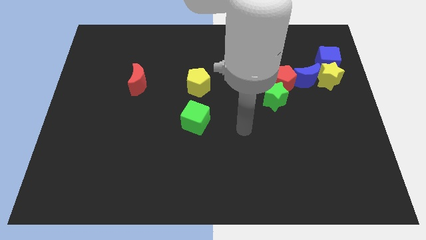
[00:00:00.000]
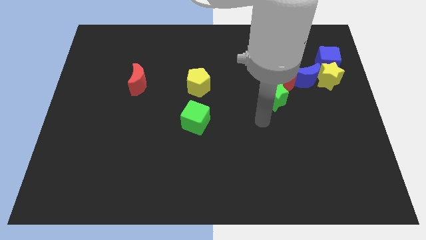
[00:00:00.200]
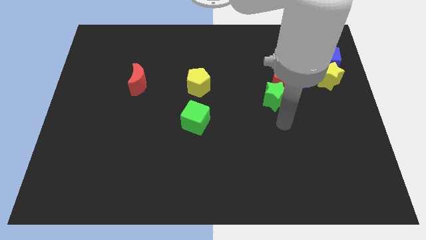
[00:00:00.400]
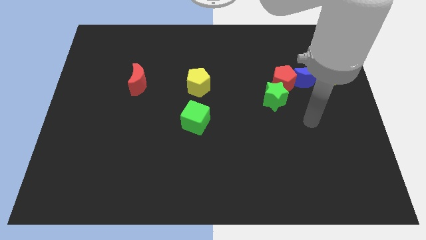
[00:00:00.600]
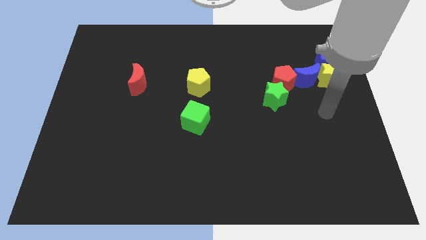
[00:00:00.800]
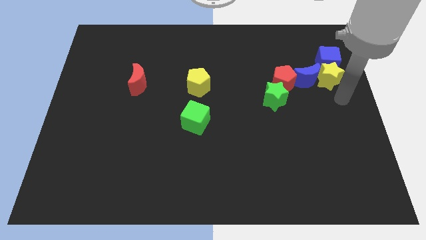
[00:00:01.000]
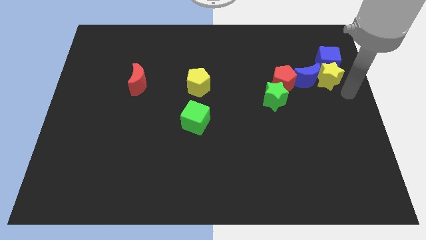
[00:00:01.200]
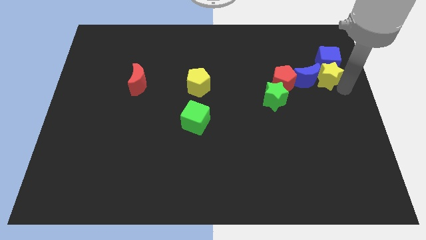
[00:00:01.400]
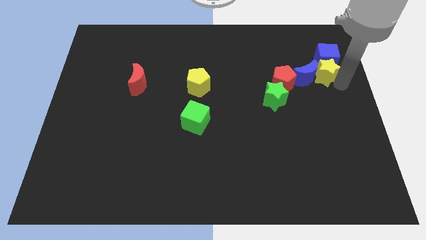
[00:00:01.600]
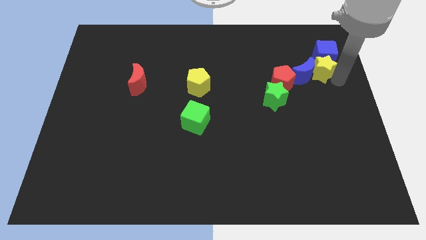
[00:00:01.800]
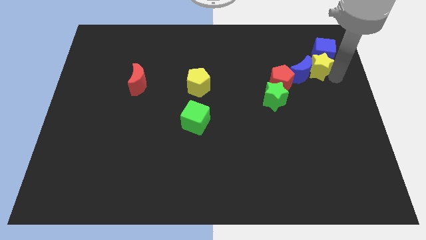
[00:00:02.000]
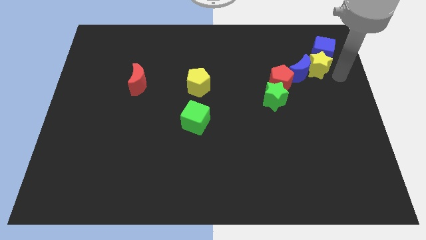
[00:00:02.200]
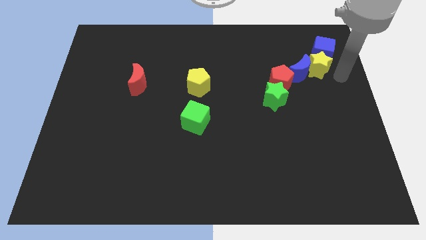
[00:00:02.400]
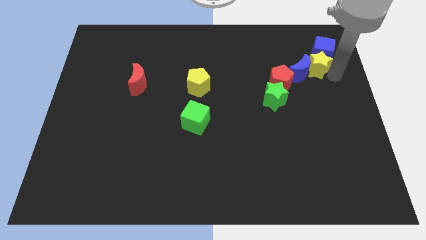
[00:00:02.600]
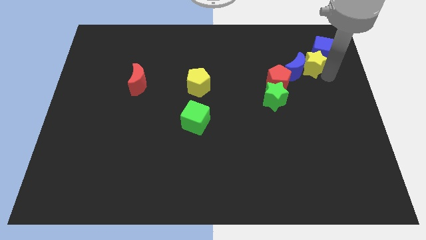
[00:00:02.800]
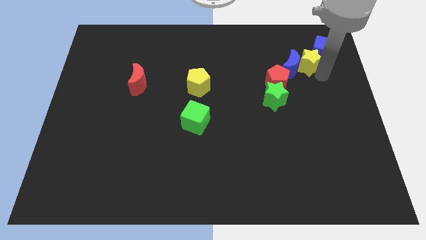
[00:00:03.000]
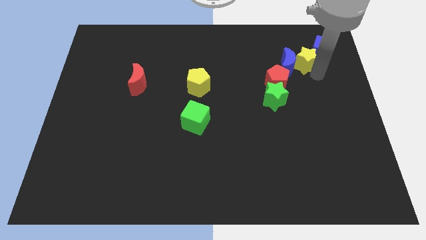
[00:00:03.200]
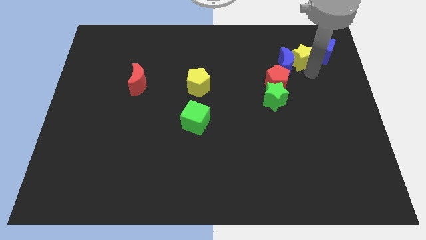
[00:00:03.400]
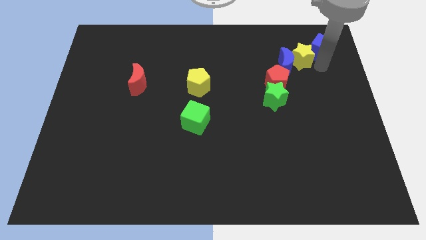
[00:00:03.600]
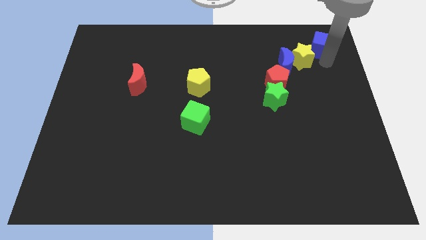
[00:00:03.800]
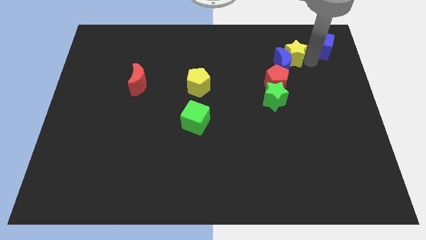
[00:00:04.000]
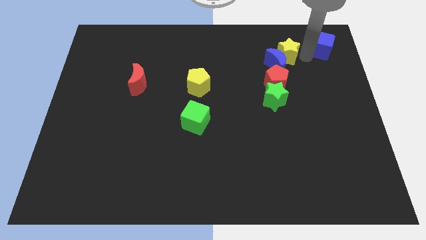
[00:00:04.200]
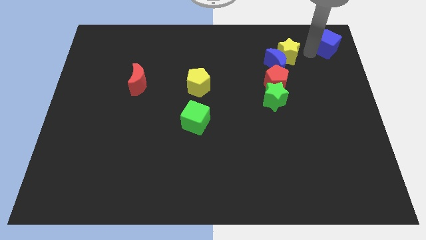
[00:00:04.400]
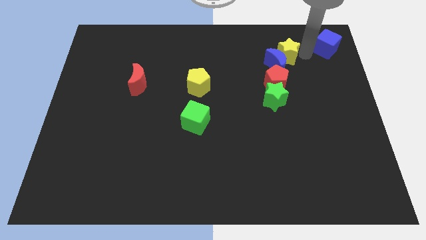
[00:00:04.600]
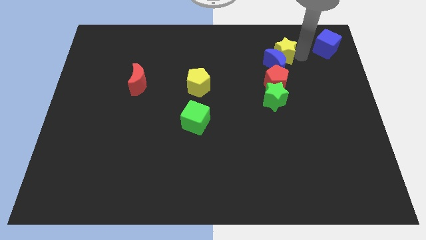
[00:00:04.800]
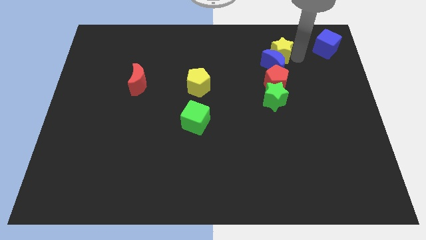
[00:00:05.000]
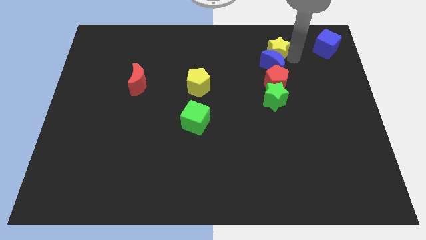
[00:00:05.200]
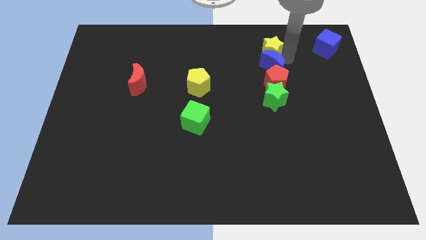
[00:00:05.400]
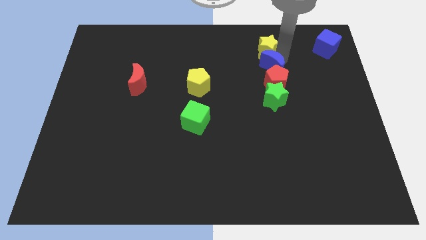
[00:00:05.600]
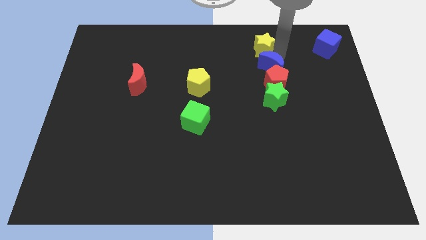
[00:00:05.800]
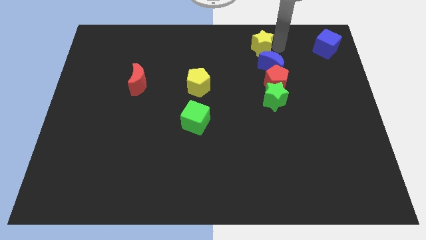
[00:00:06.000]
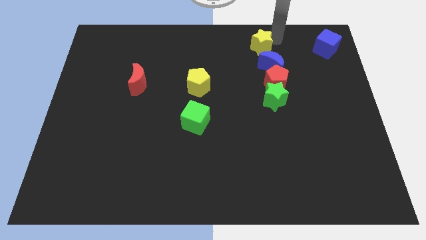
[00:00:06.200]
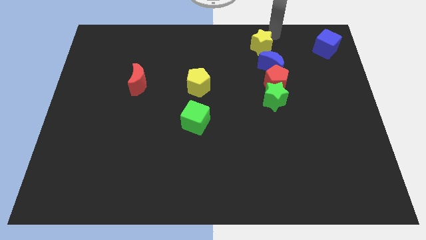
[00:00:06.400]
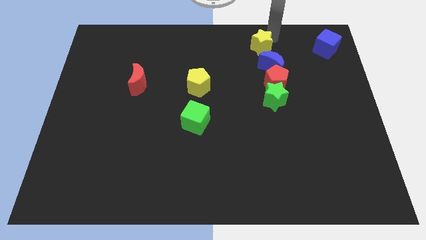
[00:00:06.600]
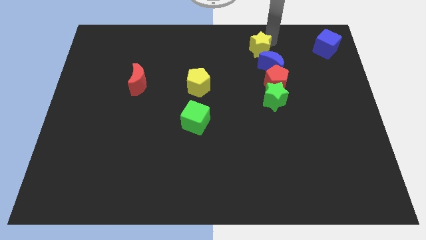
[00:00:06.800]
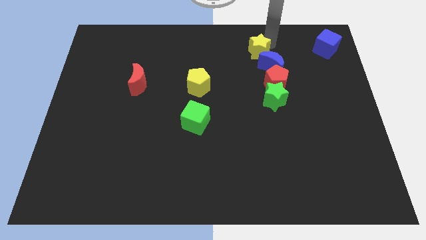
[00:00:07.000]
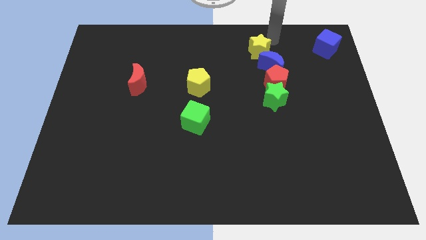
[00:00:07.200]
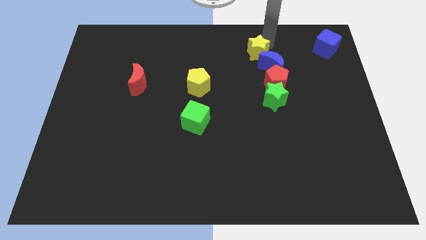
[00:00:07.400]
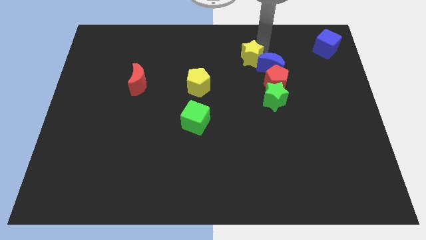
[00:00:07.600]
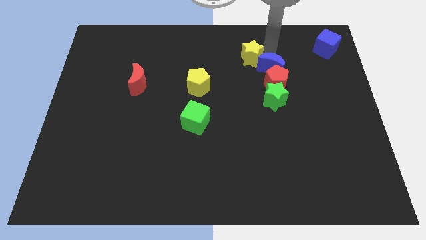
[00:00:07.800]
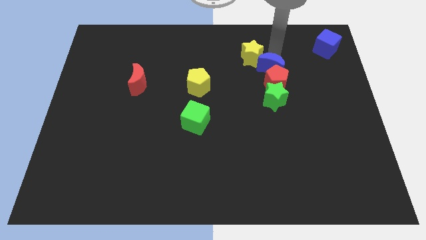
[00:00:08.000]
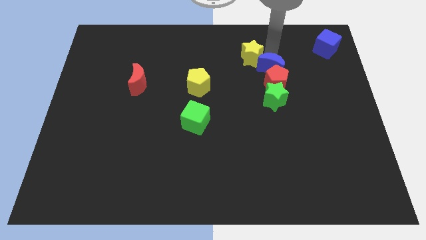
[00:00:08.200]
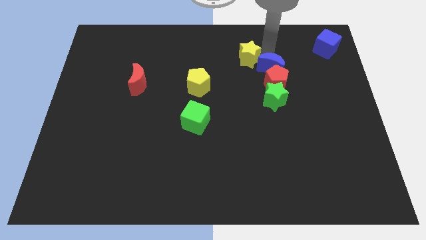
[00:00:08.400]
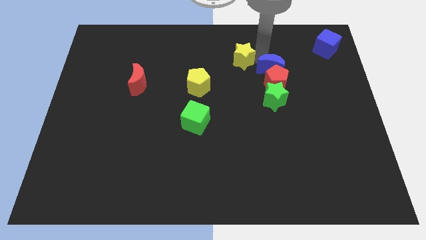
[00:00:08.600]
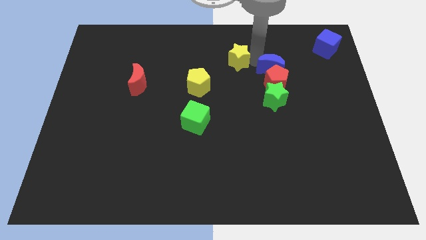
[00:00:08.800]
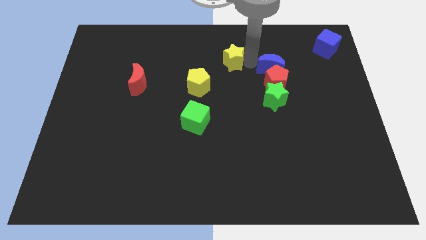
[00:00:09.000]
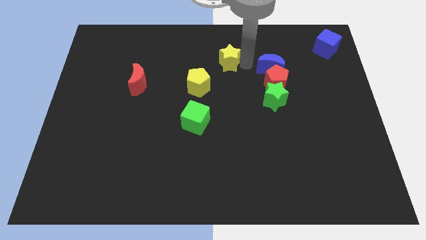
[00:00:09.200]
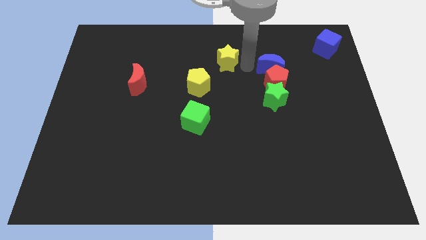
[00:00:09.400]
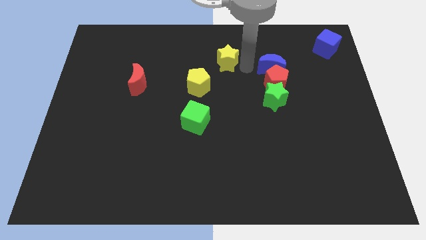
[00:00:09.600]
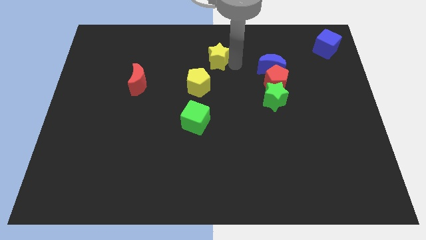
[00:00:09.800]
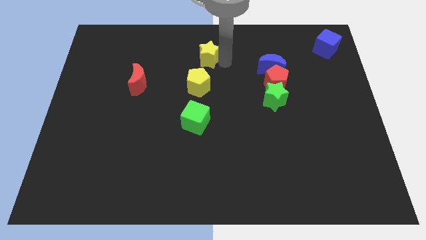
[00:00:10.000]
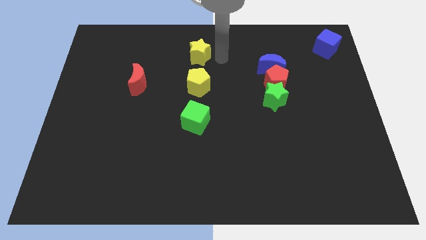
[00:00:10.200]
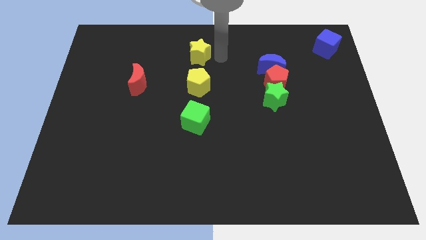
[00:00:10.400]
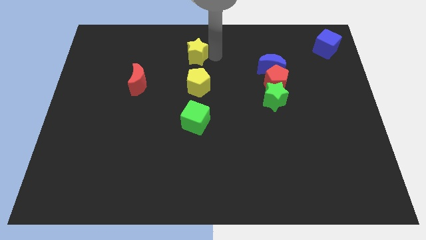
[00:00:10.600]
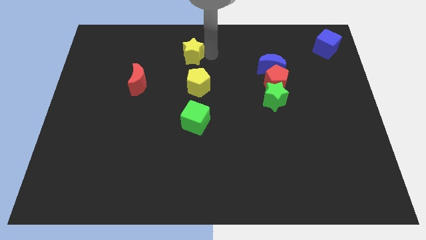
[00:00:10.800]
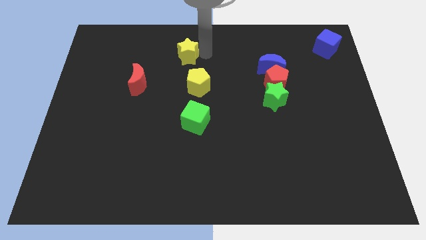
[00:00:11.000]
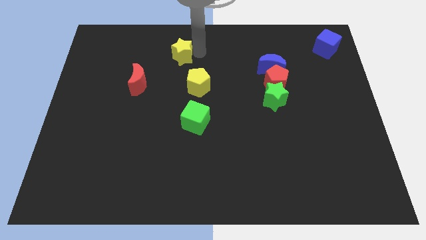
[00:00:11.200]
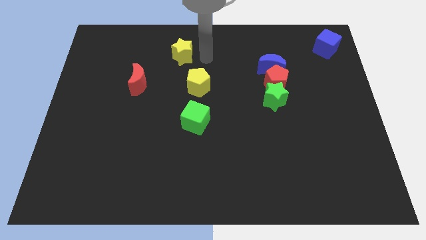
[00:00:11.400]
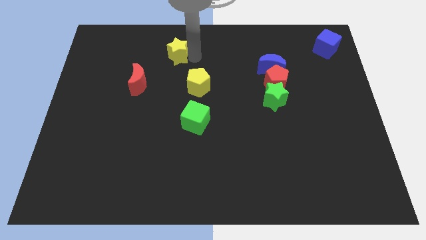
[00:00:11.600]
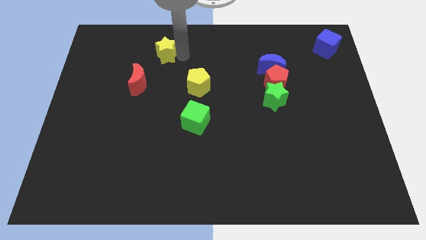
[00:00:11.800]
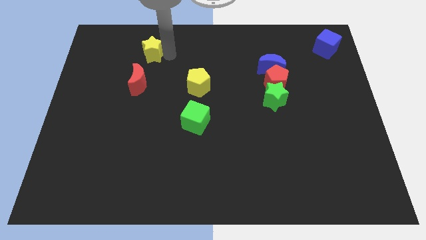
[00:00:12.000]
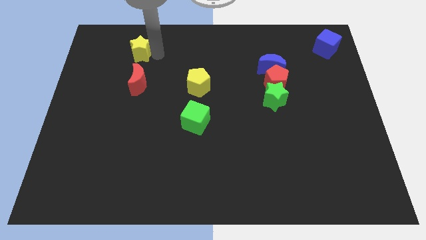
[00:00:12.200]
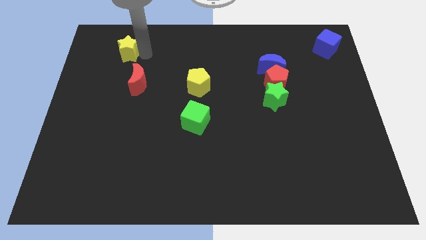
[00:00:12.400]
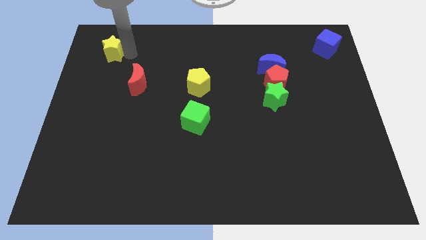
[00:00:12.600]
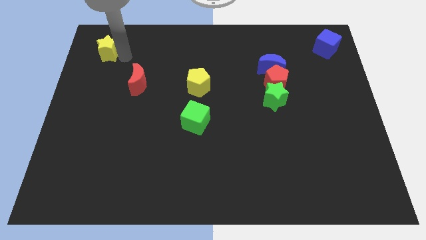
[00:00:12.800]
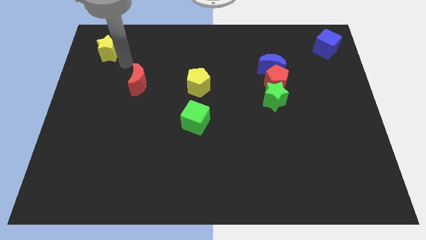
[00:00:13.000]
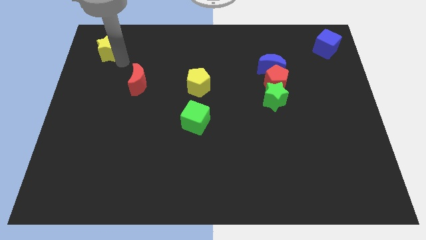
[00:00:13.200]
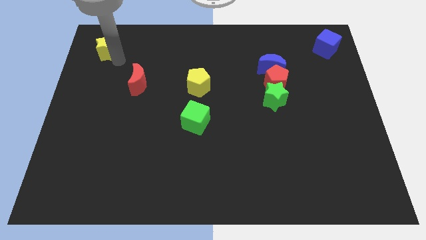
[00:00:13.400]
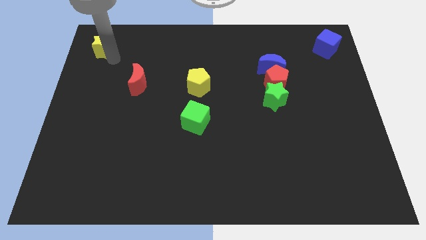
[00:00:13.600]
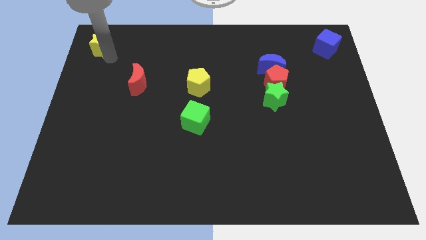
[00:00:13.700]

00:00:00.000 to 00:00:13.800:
put the yellow star to the top left corner
